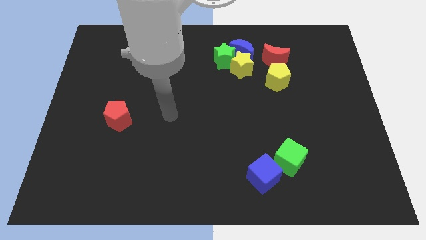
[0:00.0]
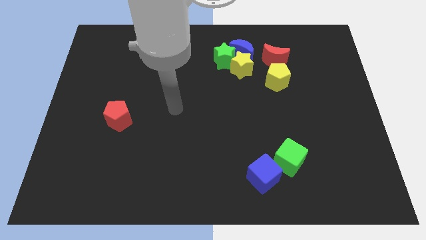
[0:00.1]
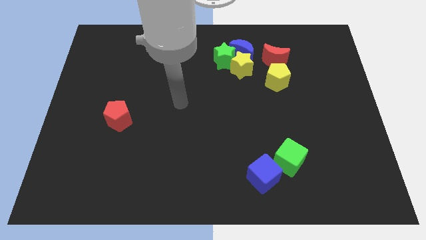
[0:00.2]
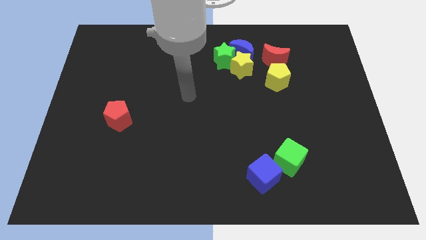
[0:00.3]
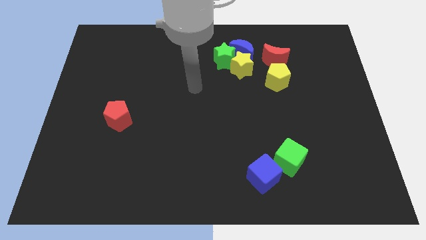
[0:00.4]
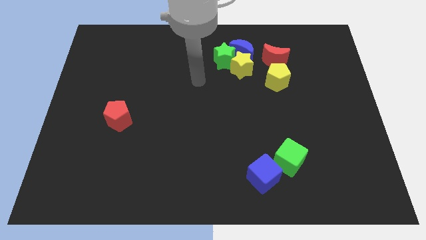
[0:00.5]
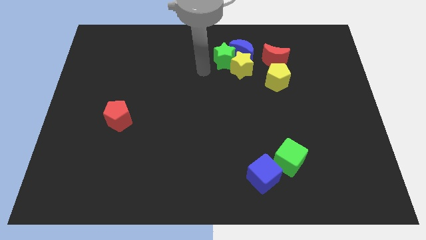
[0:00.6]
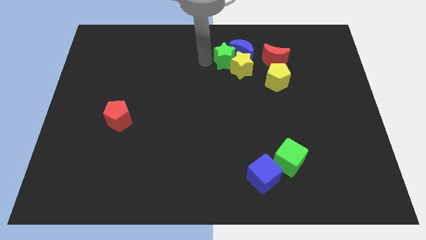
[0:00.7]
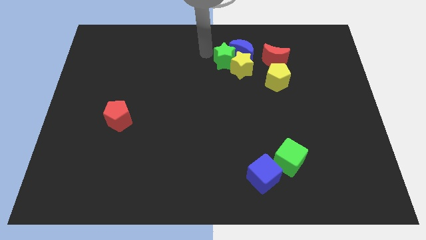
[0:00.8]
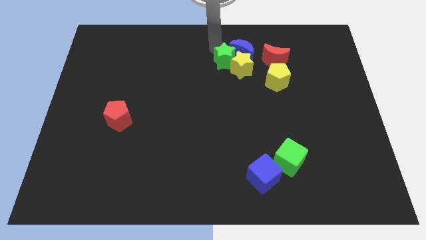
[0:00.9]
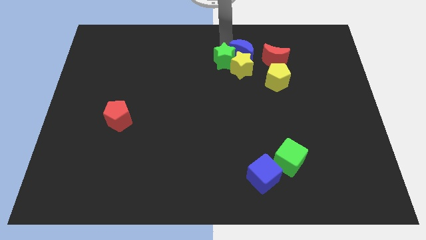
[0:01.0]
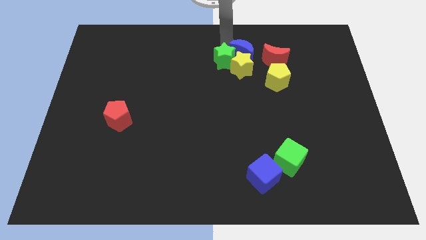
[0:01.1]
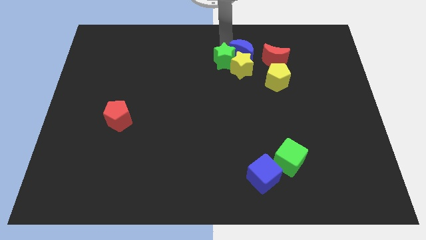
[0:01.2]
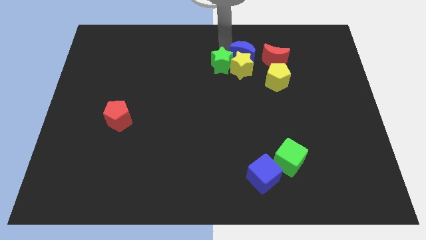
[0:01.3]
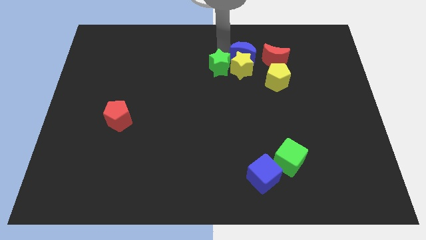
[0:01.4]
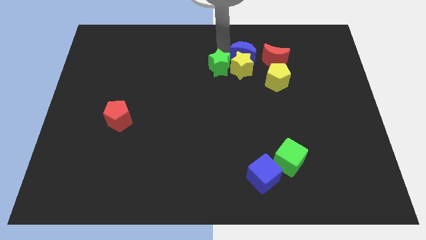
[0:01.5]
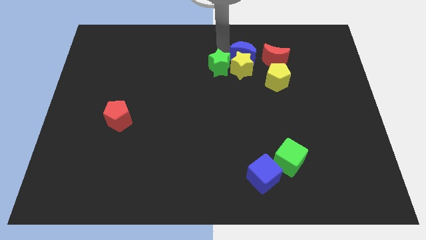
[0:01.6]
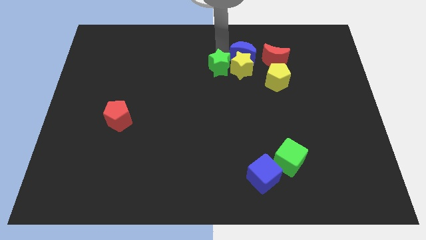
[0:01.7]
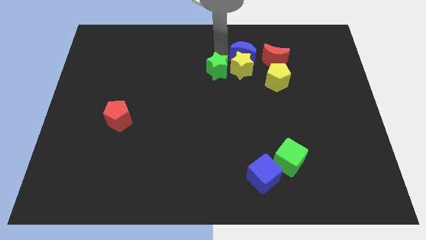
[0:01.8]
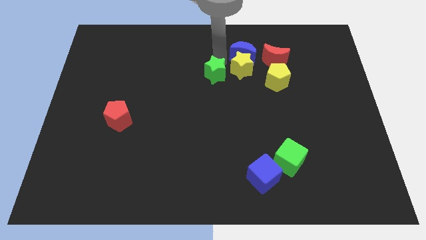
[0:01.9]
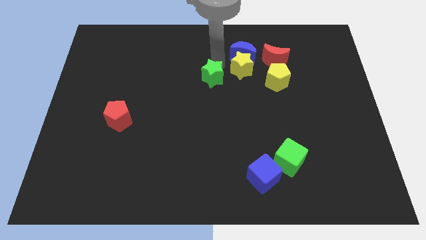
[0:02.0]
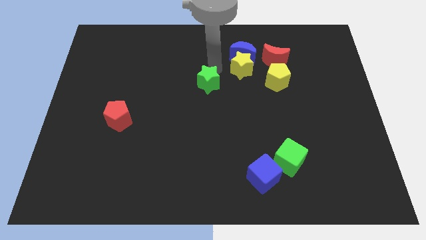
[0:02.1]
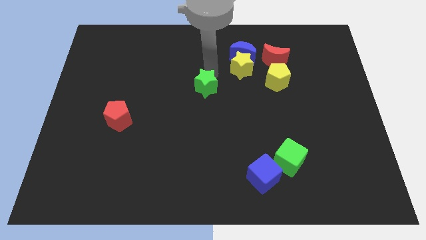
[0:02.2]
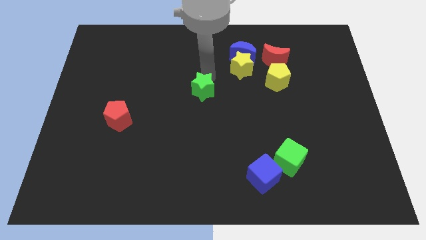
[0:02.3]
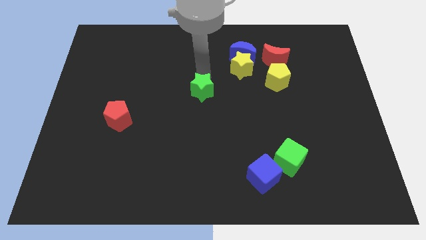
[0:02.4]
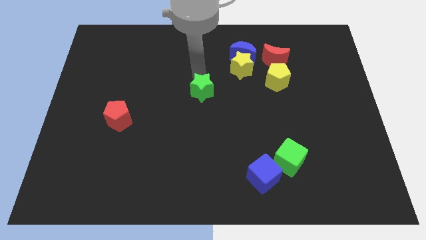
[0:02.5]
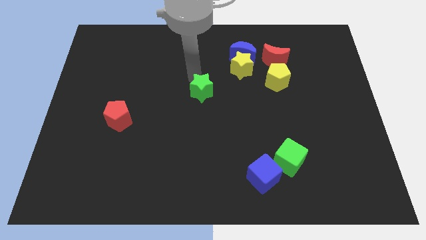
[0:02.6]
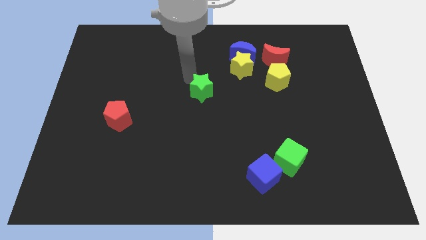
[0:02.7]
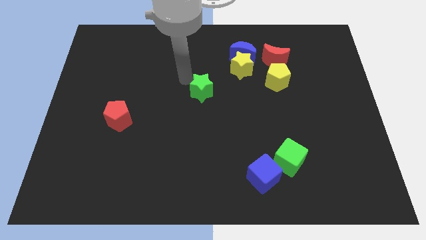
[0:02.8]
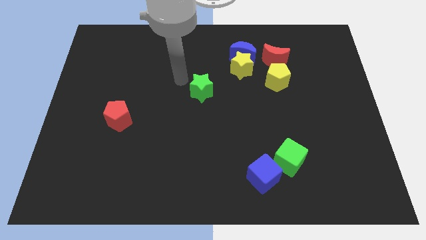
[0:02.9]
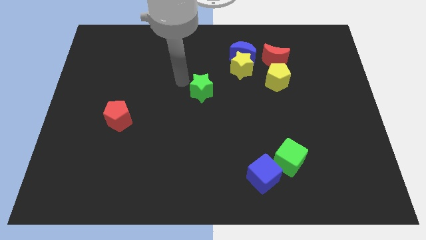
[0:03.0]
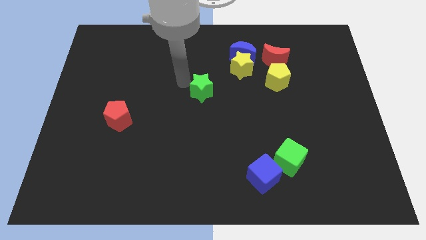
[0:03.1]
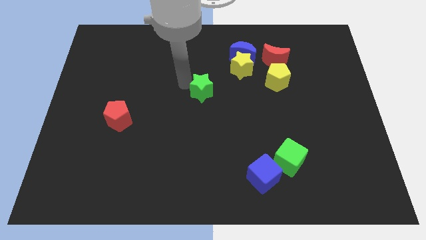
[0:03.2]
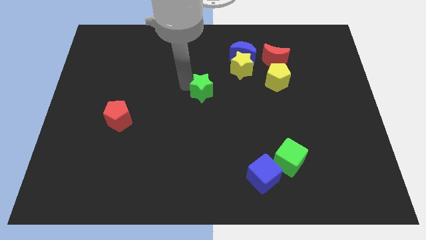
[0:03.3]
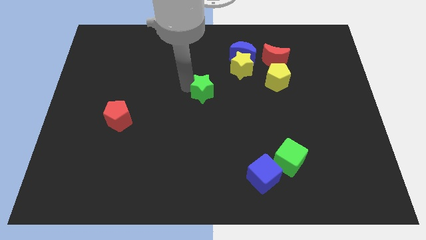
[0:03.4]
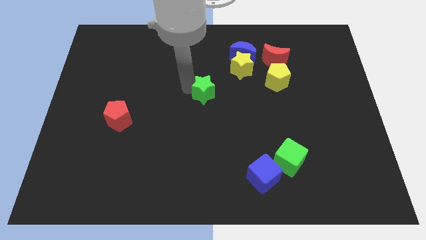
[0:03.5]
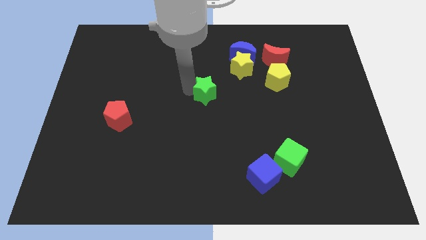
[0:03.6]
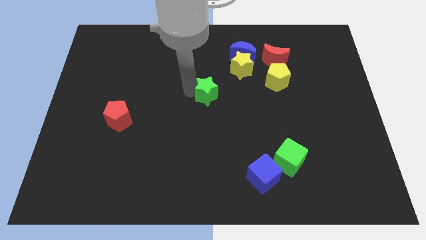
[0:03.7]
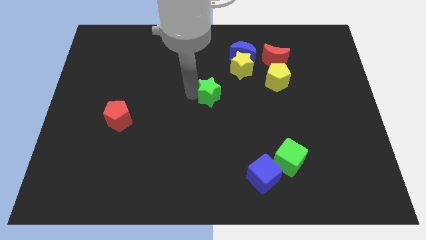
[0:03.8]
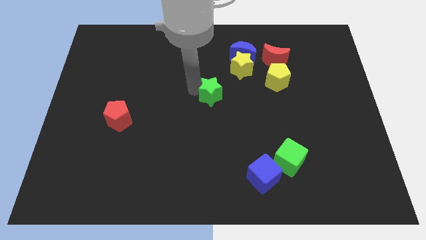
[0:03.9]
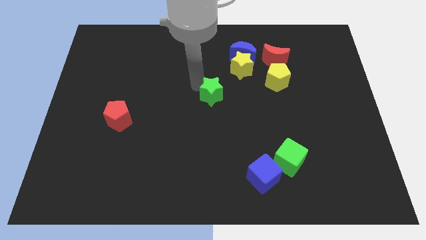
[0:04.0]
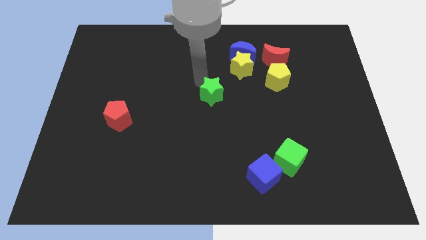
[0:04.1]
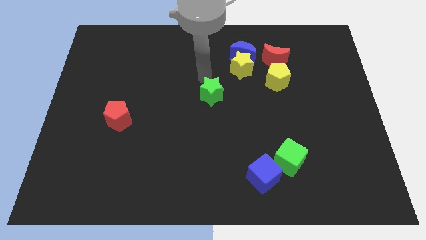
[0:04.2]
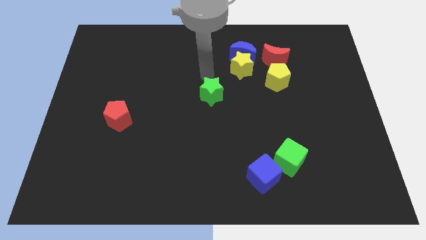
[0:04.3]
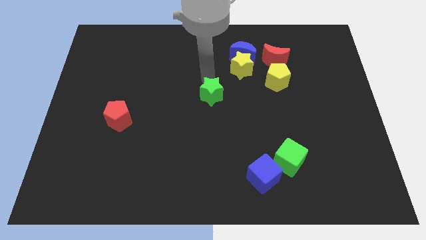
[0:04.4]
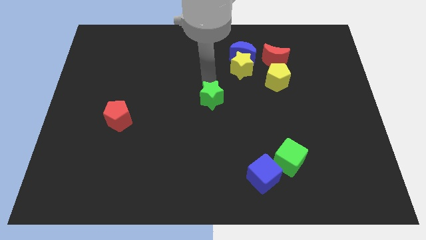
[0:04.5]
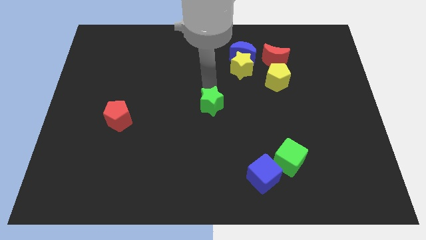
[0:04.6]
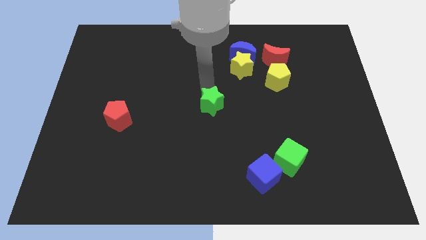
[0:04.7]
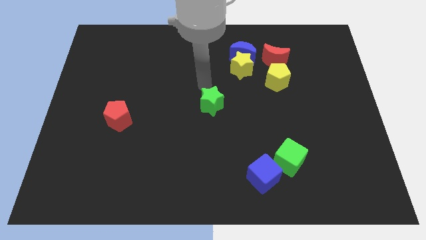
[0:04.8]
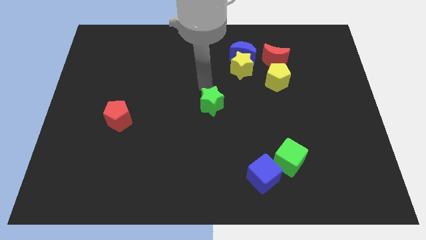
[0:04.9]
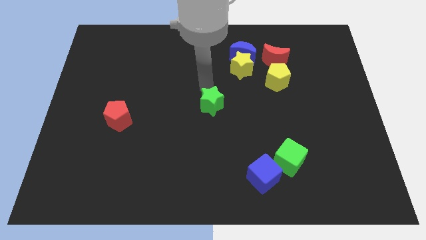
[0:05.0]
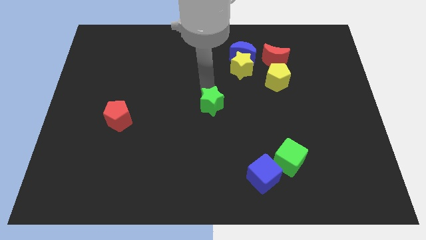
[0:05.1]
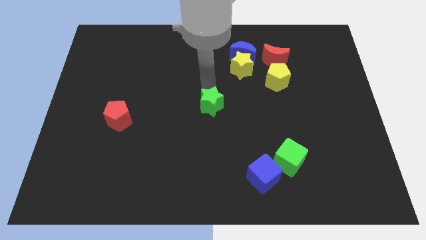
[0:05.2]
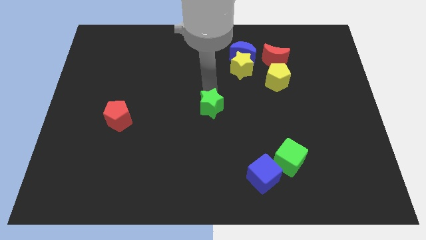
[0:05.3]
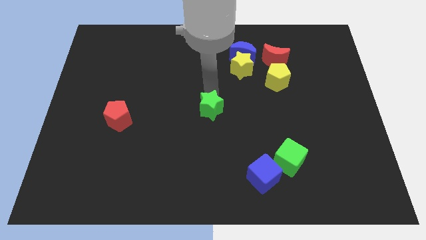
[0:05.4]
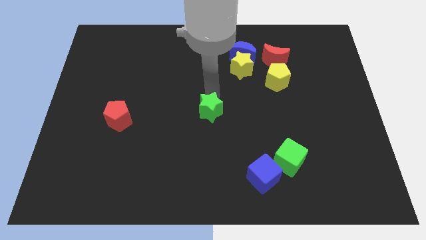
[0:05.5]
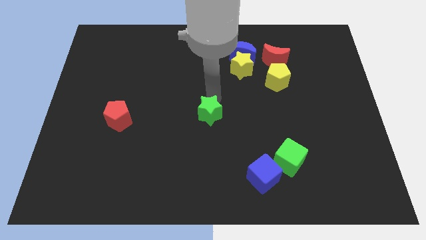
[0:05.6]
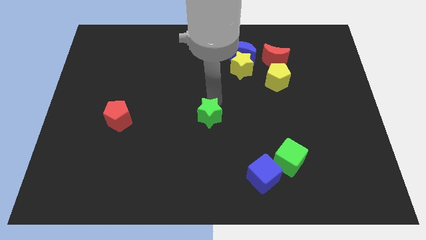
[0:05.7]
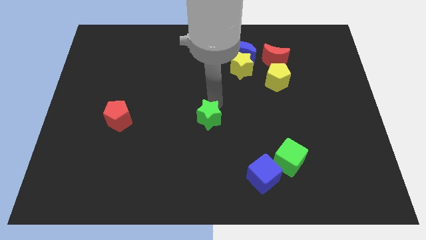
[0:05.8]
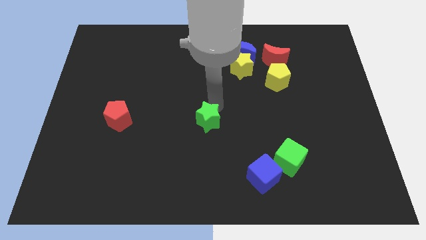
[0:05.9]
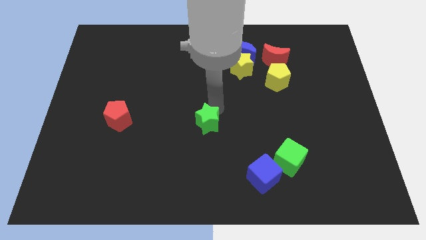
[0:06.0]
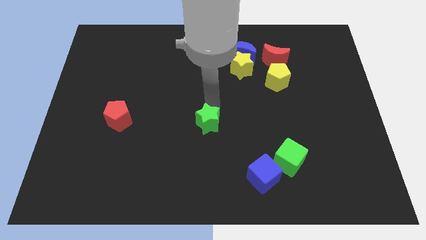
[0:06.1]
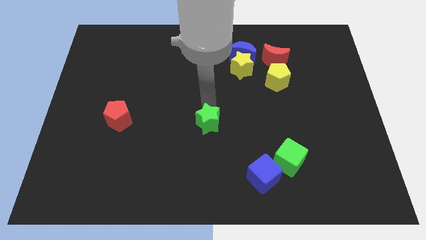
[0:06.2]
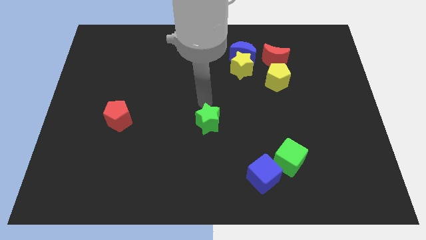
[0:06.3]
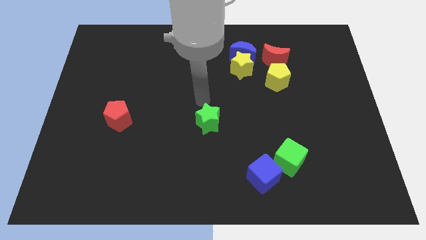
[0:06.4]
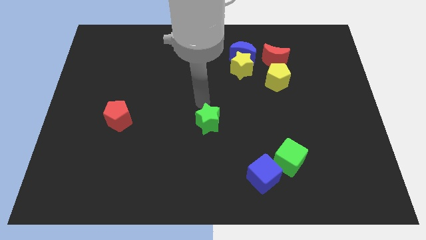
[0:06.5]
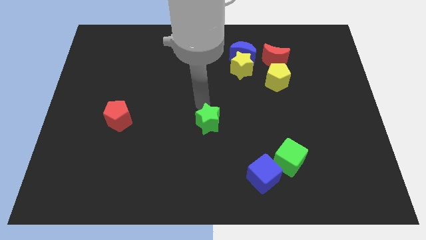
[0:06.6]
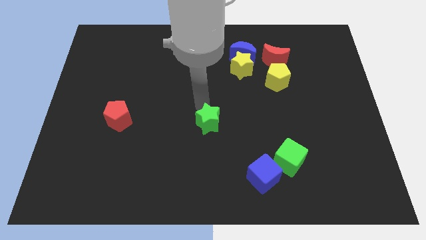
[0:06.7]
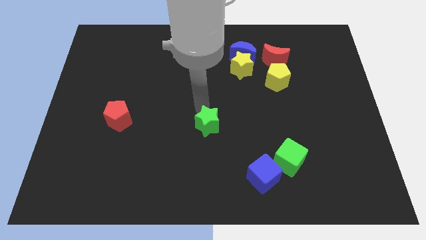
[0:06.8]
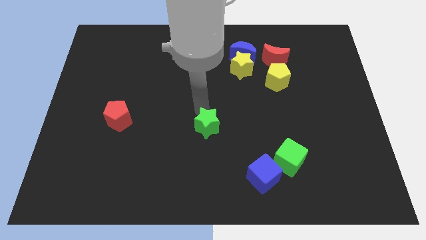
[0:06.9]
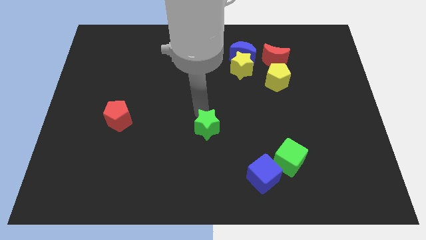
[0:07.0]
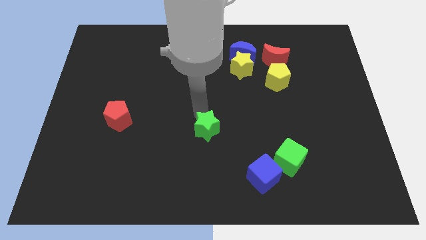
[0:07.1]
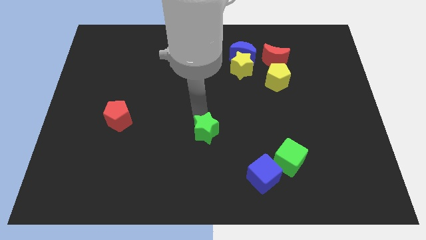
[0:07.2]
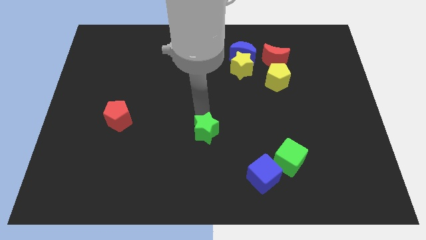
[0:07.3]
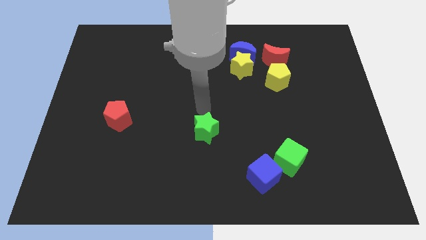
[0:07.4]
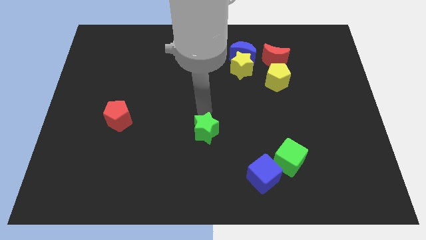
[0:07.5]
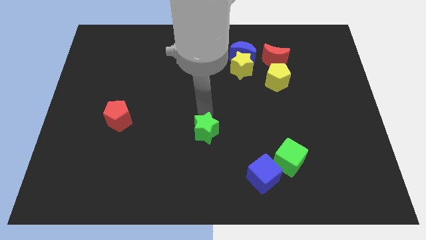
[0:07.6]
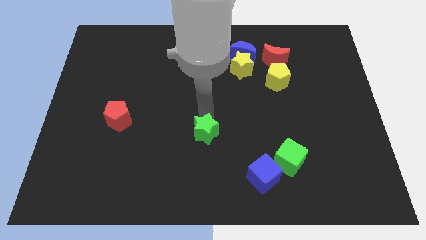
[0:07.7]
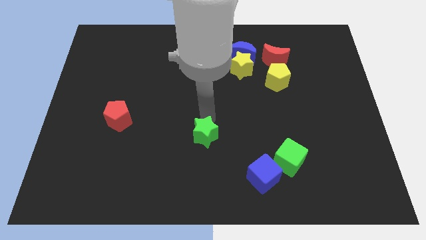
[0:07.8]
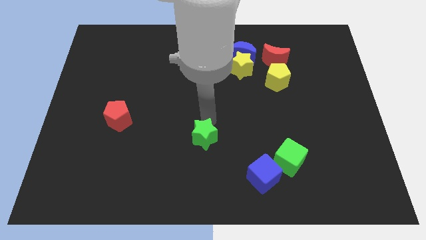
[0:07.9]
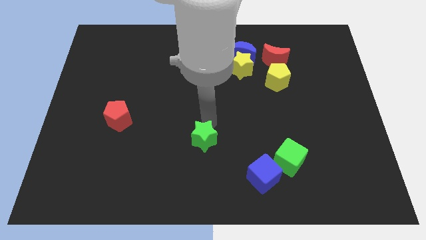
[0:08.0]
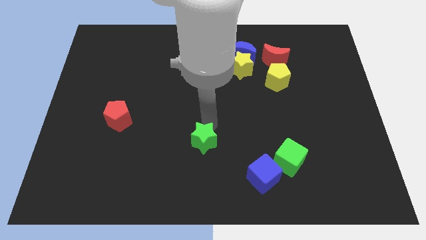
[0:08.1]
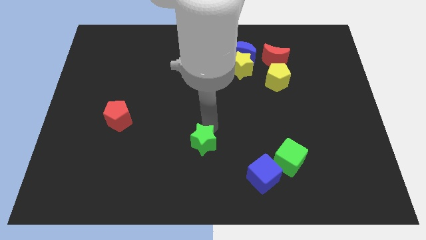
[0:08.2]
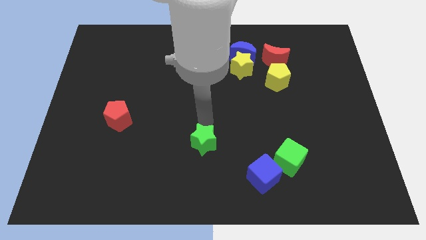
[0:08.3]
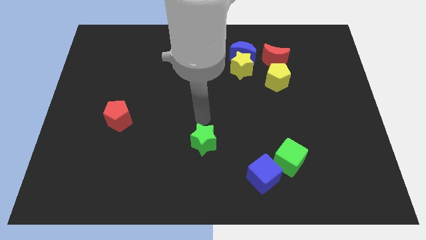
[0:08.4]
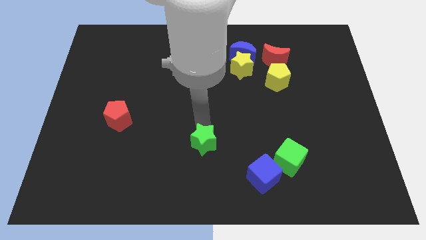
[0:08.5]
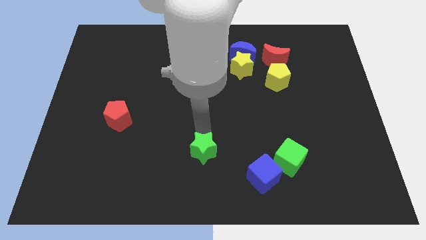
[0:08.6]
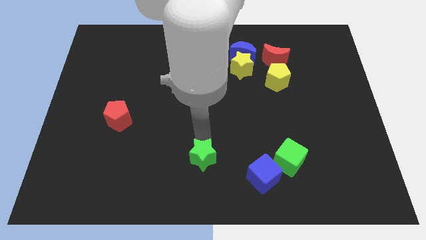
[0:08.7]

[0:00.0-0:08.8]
push the green star to the bottom side
